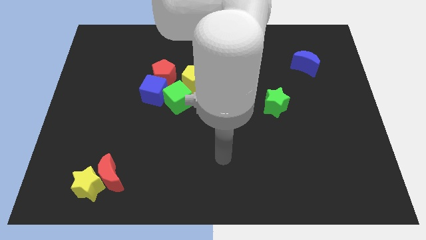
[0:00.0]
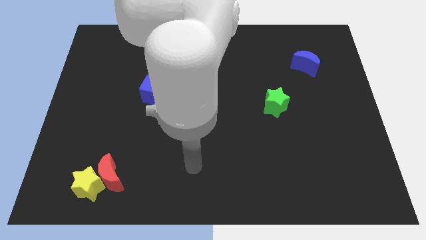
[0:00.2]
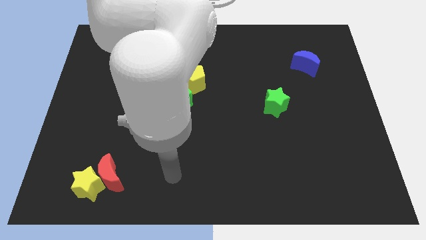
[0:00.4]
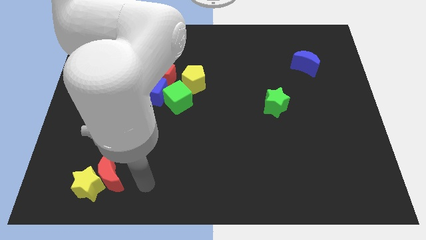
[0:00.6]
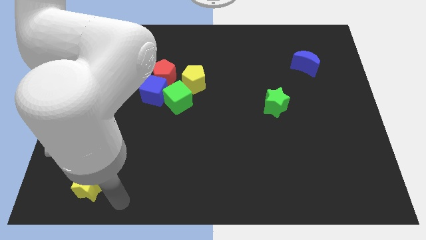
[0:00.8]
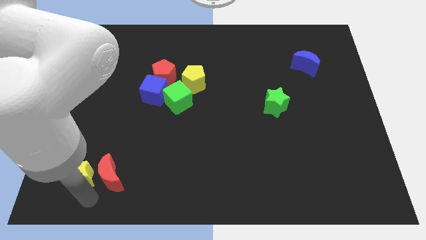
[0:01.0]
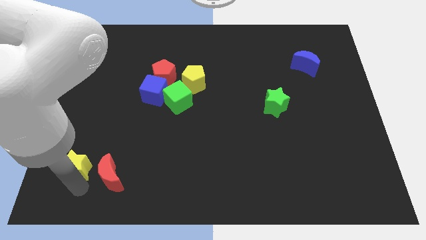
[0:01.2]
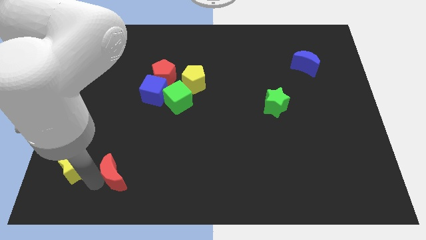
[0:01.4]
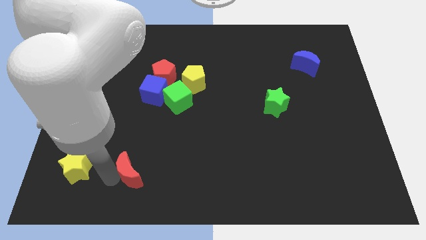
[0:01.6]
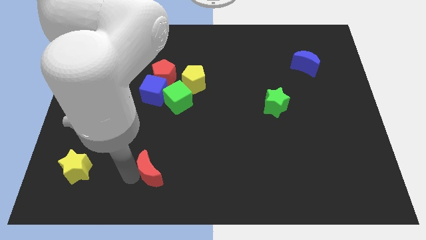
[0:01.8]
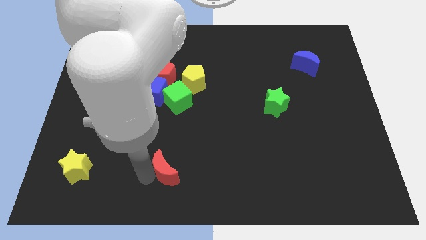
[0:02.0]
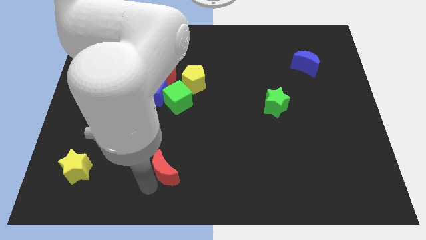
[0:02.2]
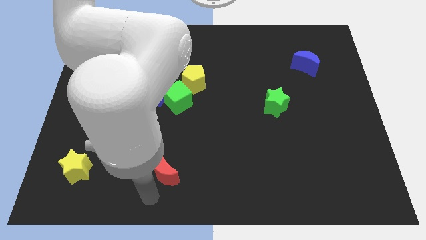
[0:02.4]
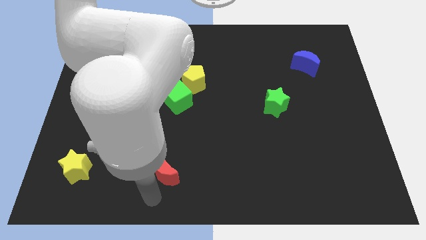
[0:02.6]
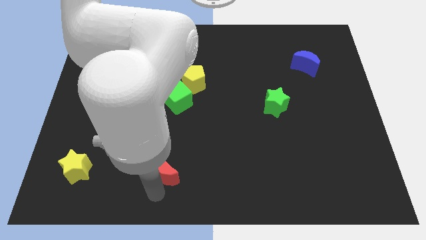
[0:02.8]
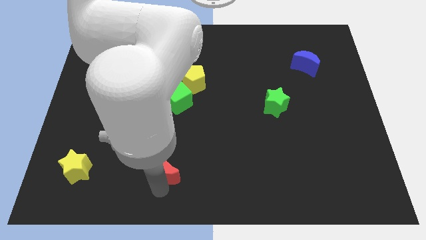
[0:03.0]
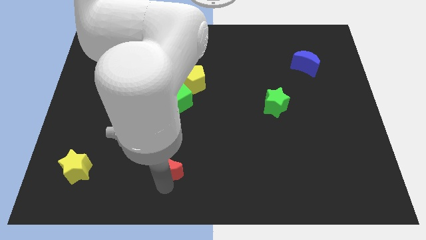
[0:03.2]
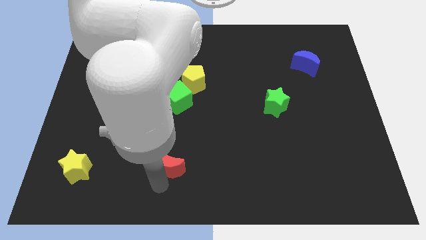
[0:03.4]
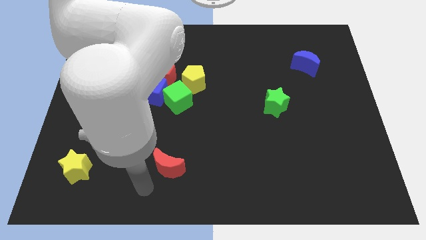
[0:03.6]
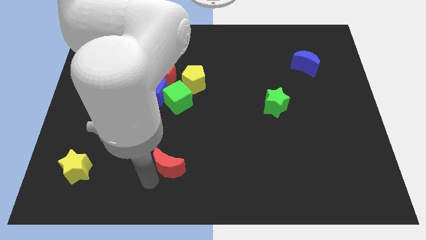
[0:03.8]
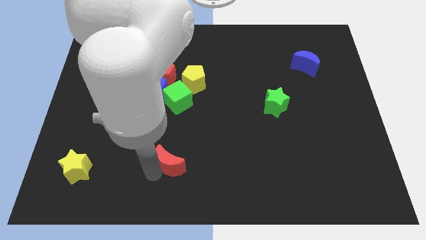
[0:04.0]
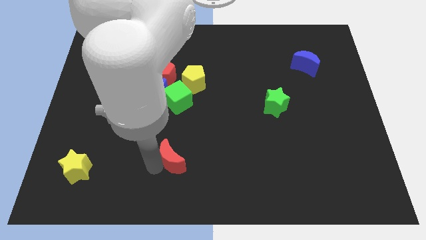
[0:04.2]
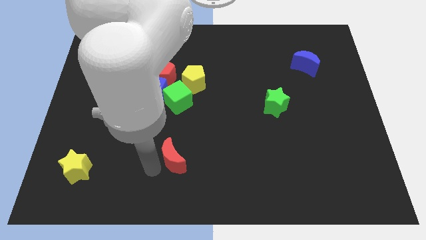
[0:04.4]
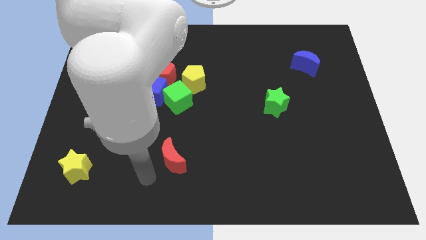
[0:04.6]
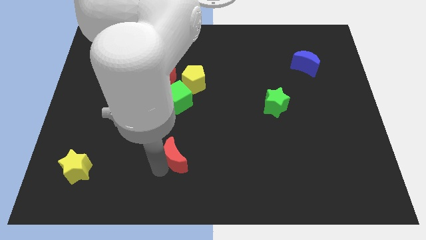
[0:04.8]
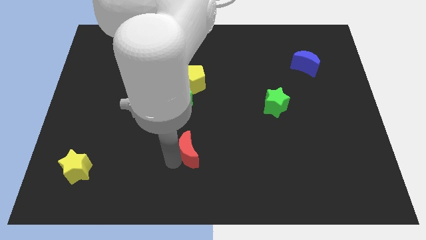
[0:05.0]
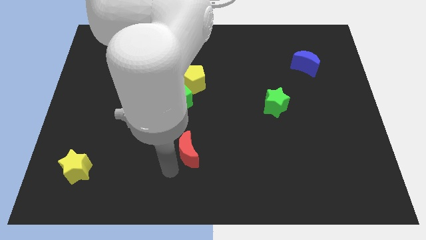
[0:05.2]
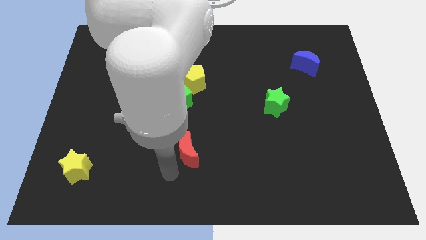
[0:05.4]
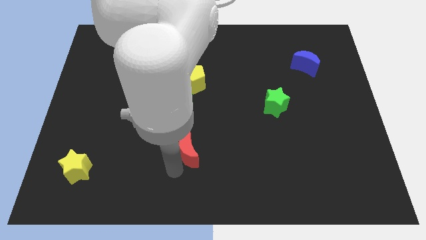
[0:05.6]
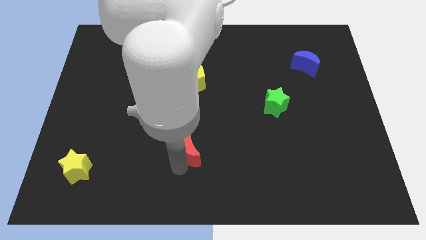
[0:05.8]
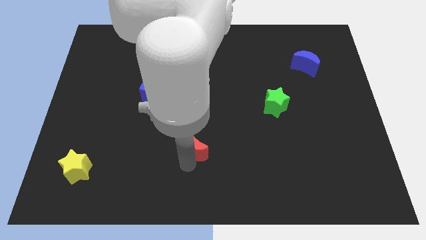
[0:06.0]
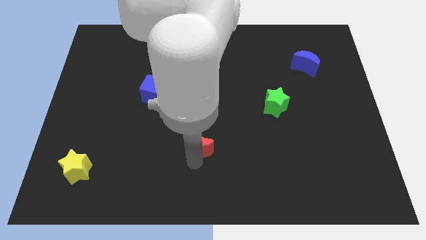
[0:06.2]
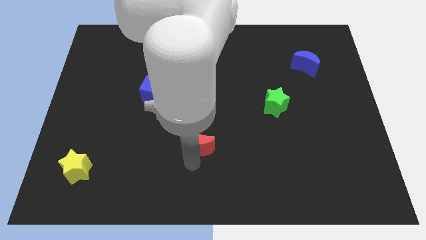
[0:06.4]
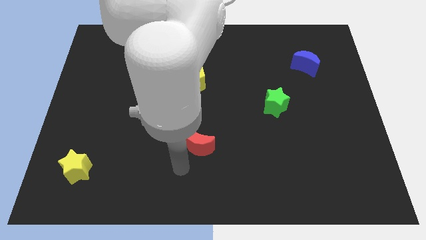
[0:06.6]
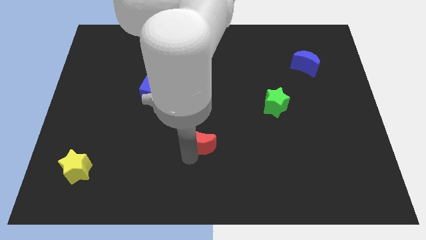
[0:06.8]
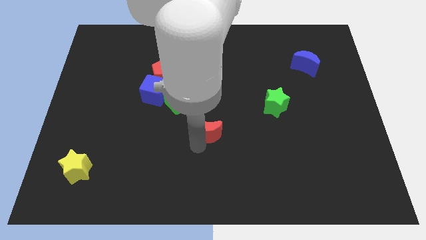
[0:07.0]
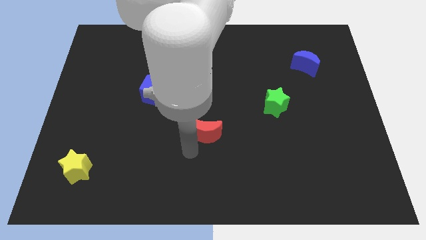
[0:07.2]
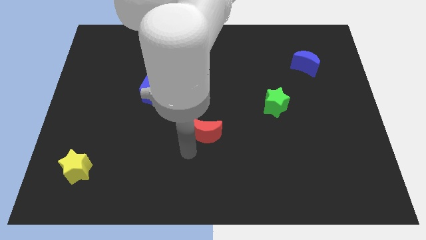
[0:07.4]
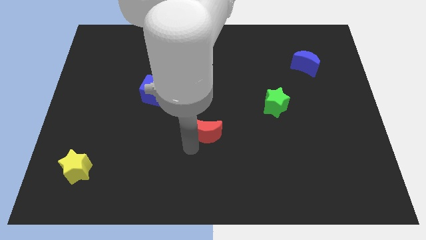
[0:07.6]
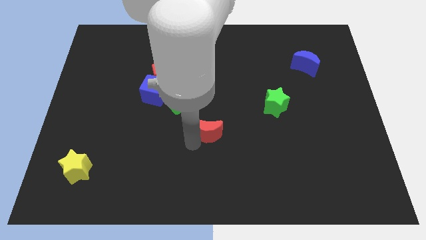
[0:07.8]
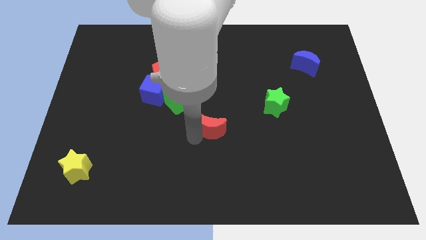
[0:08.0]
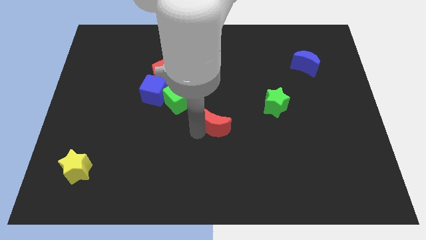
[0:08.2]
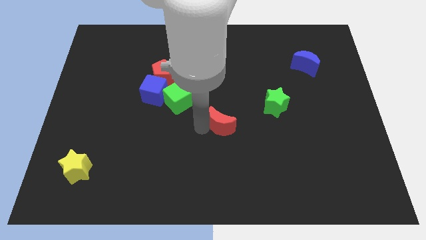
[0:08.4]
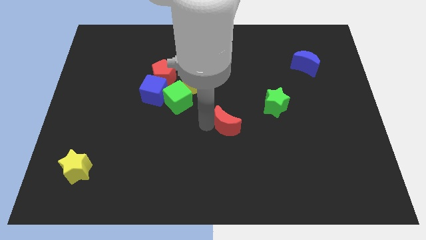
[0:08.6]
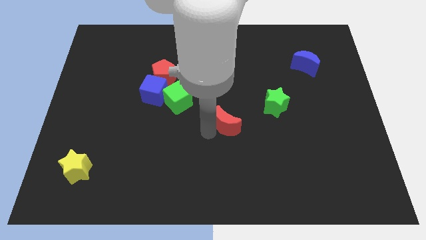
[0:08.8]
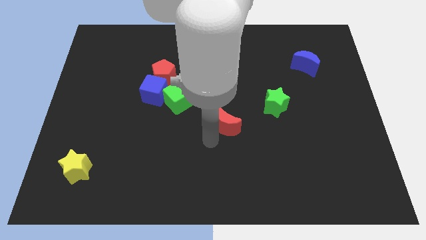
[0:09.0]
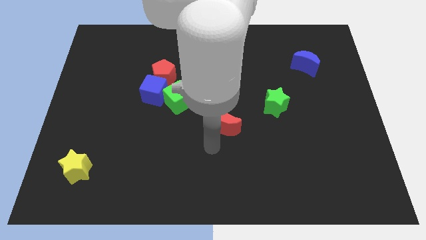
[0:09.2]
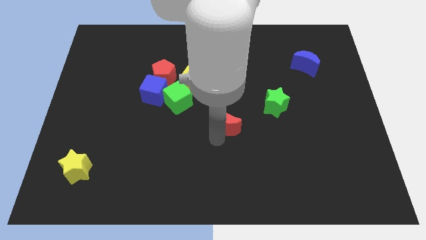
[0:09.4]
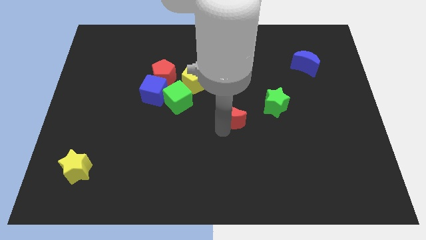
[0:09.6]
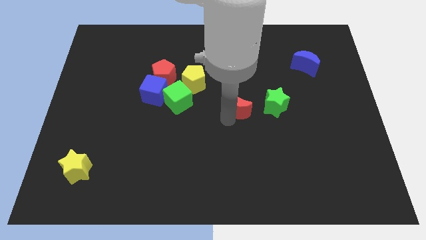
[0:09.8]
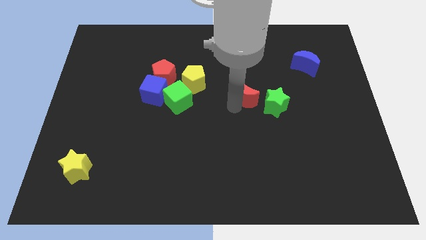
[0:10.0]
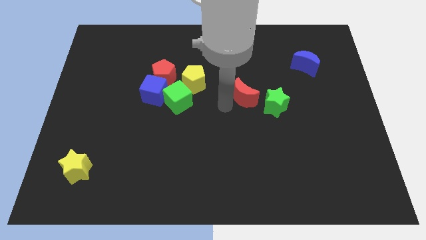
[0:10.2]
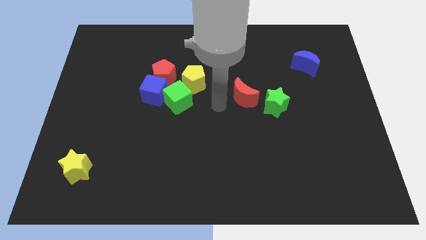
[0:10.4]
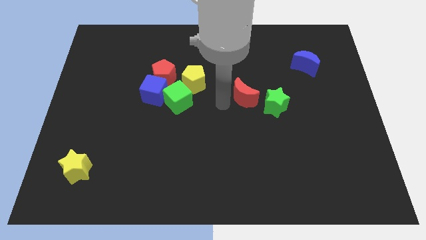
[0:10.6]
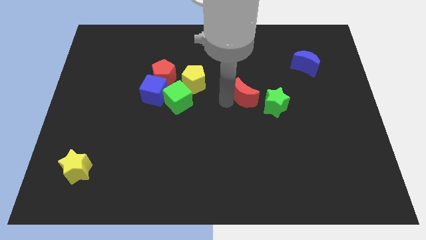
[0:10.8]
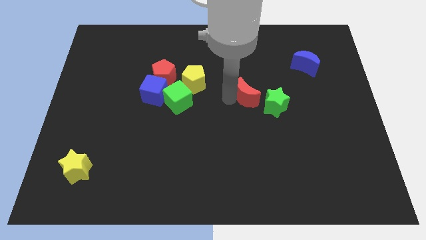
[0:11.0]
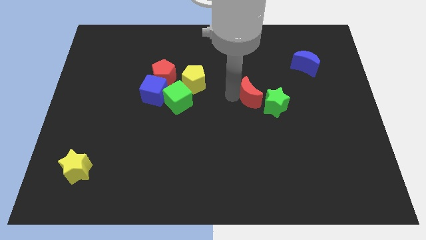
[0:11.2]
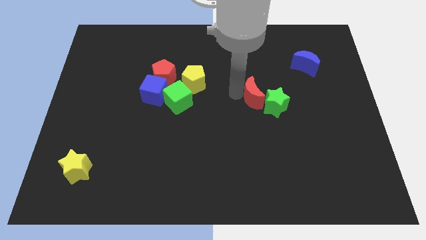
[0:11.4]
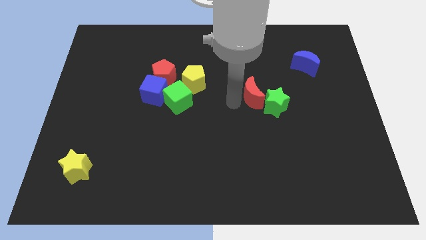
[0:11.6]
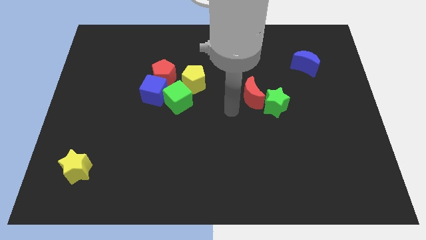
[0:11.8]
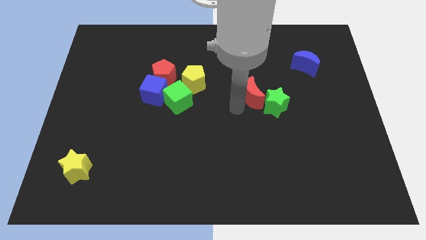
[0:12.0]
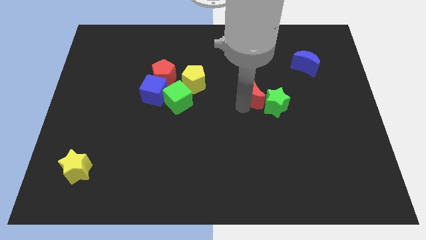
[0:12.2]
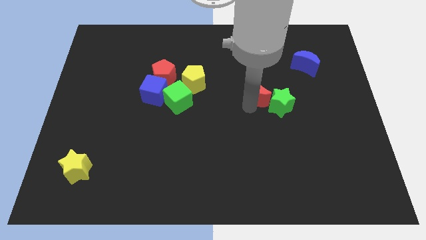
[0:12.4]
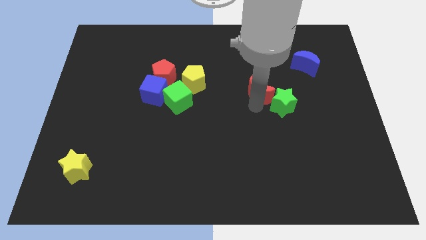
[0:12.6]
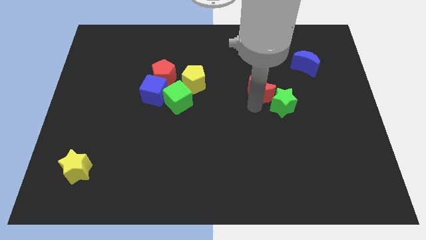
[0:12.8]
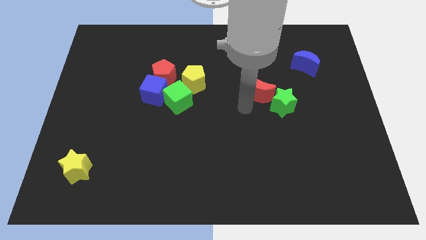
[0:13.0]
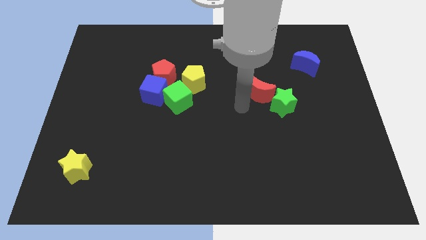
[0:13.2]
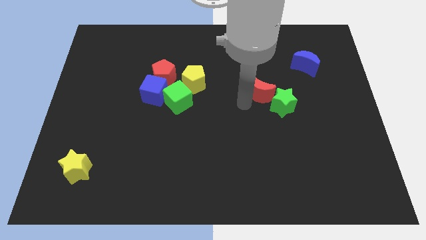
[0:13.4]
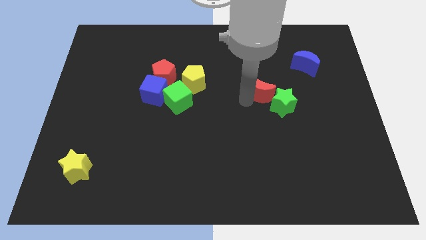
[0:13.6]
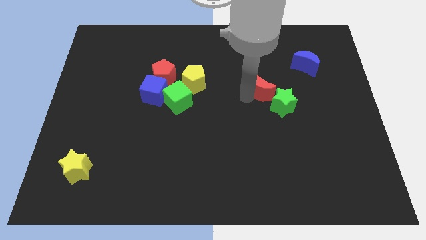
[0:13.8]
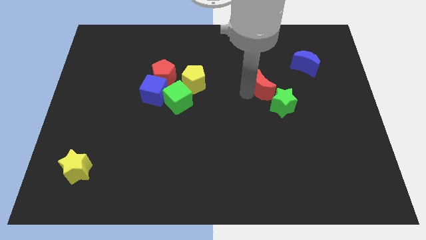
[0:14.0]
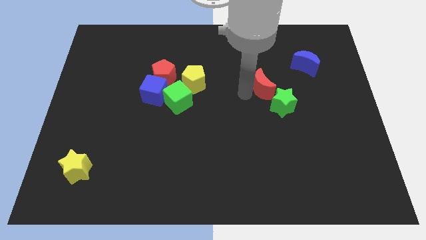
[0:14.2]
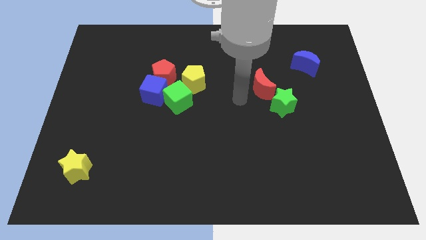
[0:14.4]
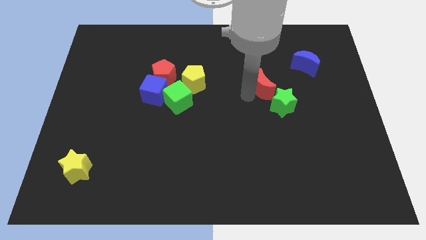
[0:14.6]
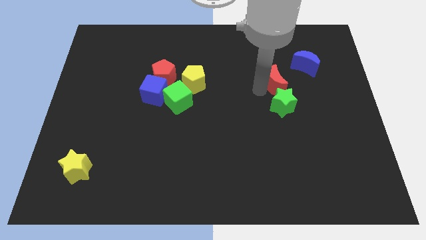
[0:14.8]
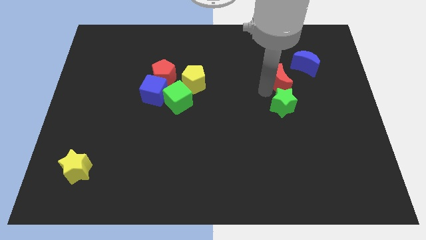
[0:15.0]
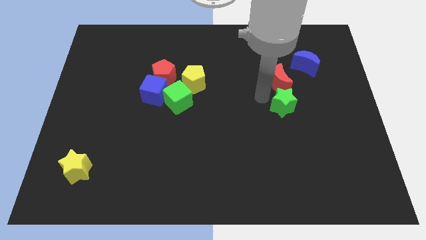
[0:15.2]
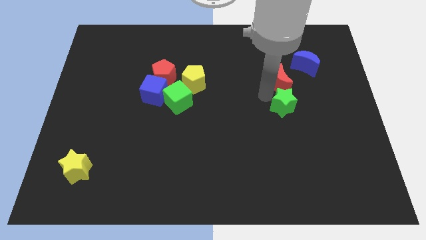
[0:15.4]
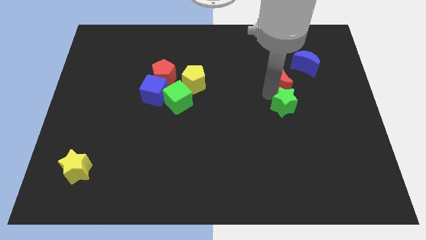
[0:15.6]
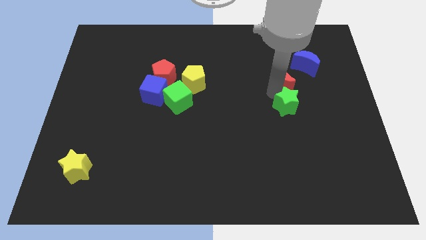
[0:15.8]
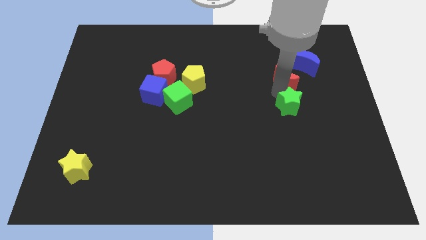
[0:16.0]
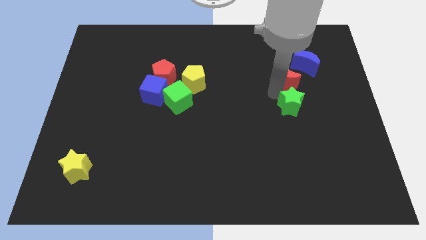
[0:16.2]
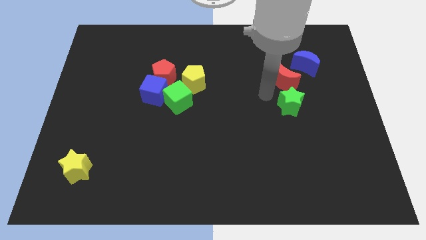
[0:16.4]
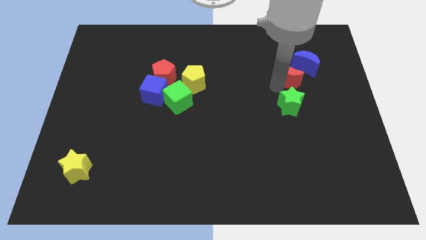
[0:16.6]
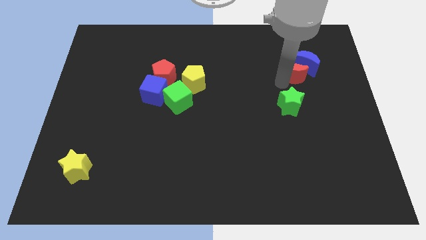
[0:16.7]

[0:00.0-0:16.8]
slide the red moon to the blue moon
